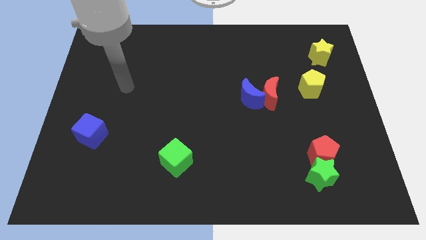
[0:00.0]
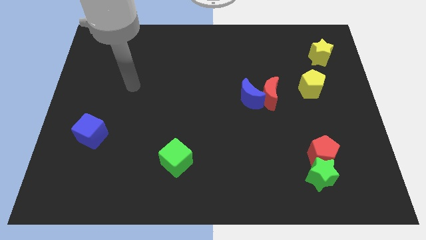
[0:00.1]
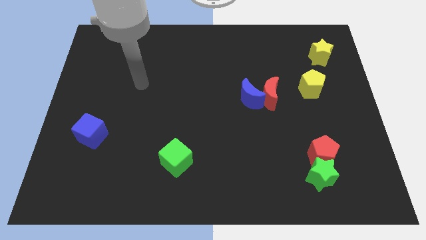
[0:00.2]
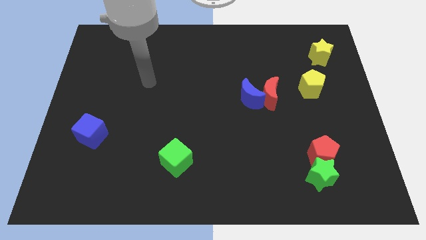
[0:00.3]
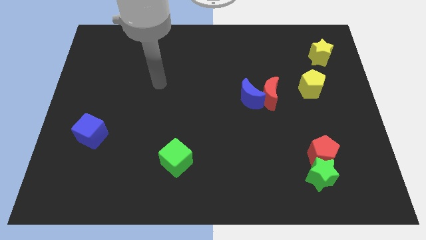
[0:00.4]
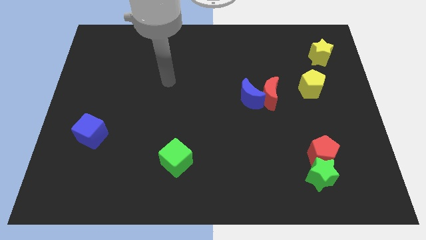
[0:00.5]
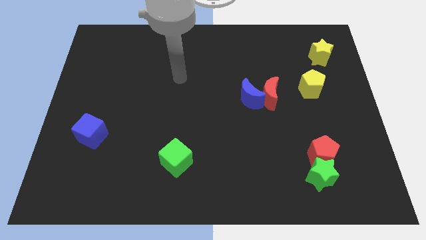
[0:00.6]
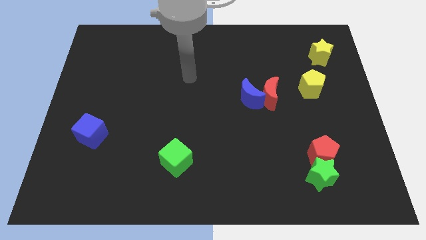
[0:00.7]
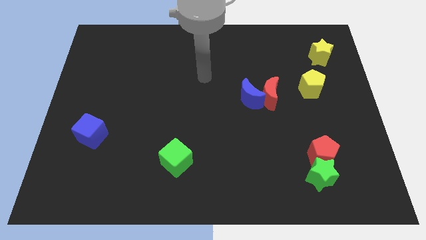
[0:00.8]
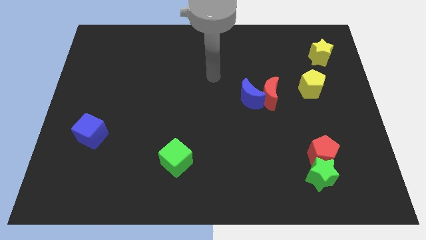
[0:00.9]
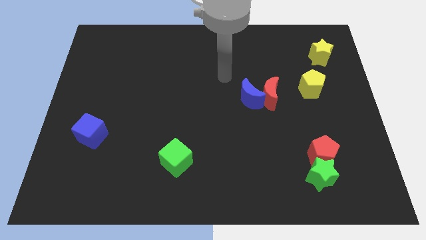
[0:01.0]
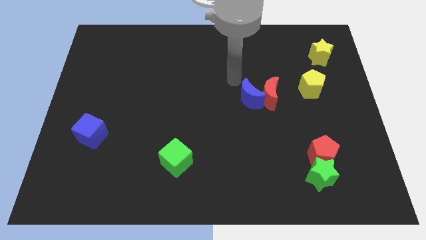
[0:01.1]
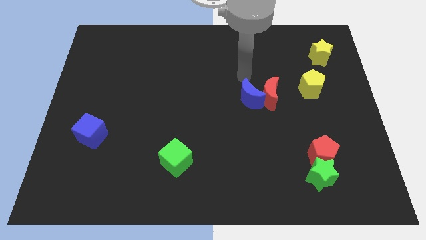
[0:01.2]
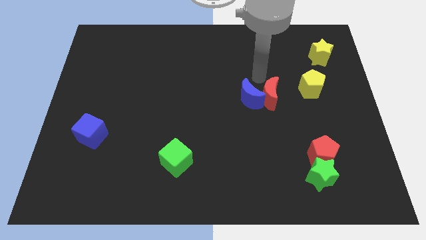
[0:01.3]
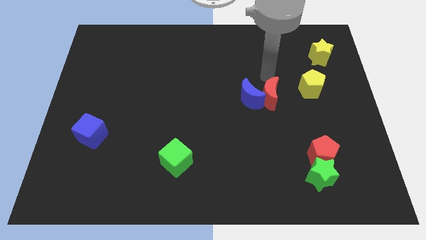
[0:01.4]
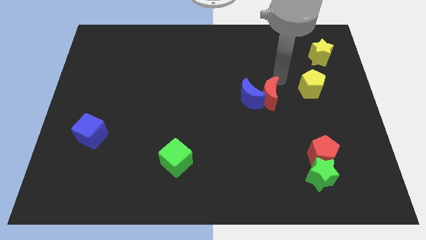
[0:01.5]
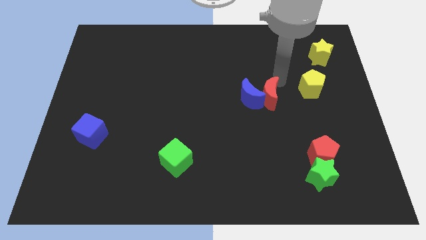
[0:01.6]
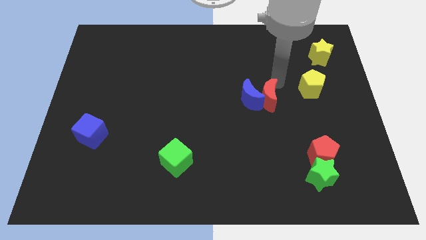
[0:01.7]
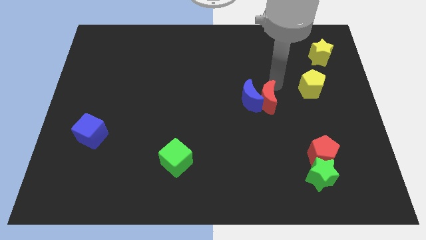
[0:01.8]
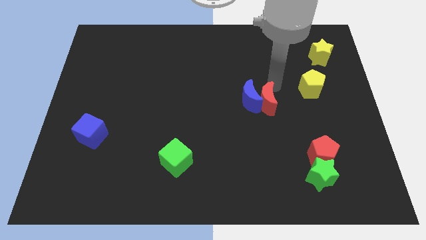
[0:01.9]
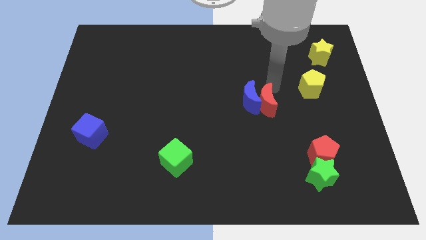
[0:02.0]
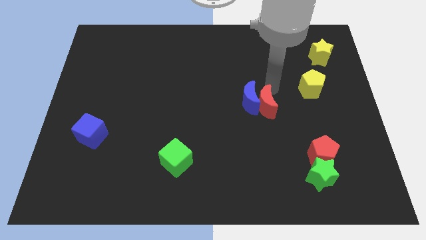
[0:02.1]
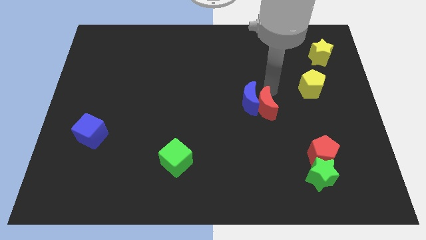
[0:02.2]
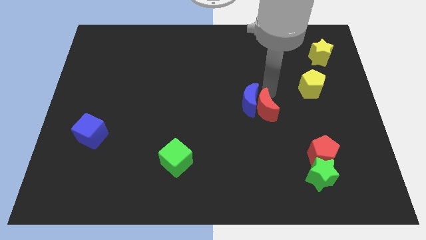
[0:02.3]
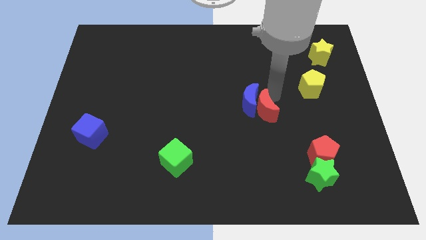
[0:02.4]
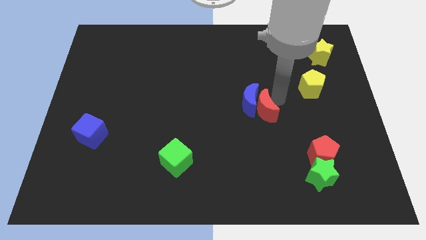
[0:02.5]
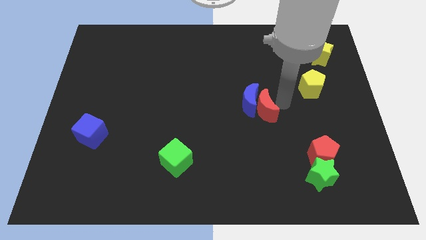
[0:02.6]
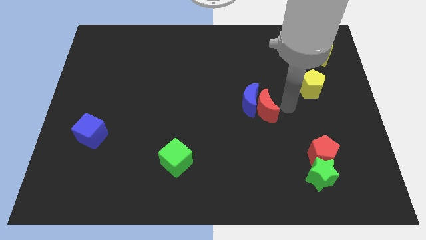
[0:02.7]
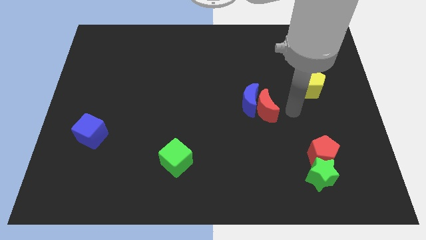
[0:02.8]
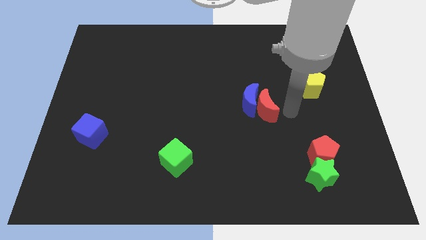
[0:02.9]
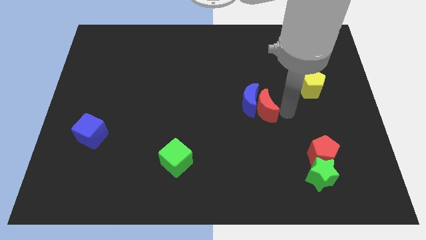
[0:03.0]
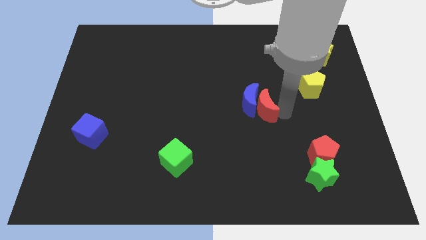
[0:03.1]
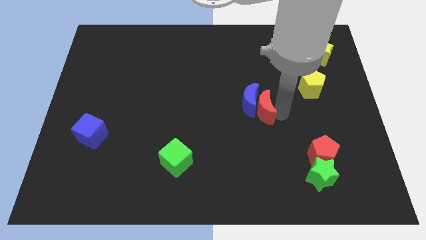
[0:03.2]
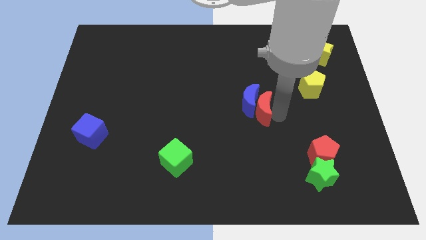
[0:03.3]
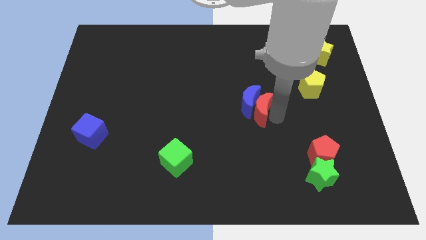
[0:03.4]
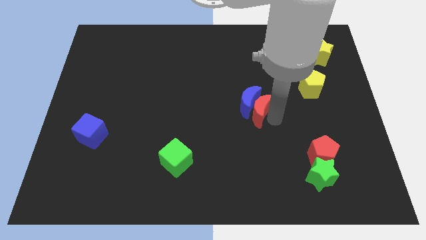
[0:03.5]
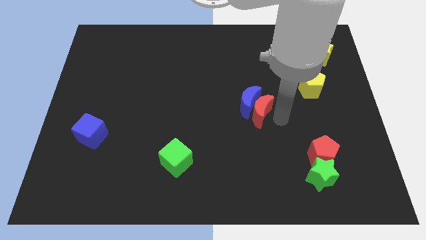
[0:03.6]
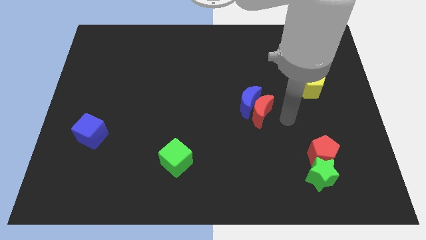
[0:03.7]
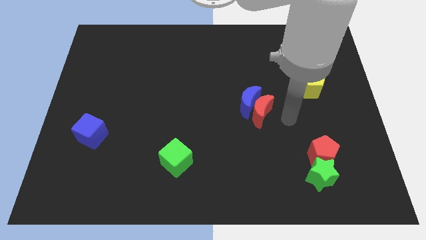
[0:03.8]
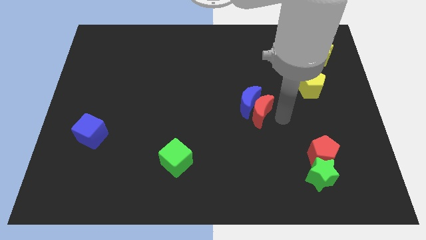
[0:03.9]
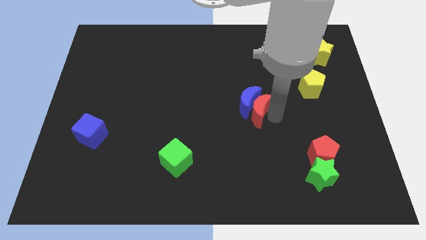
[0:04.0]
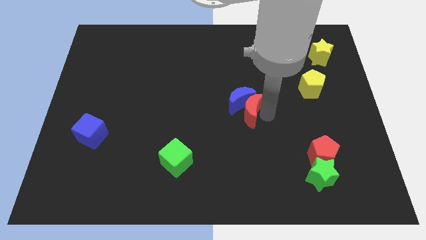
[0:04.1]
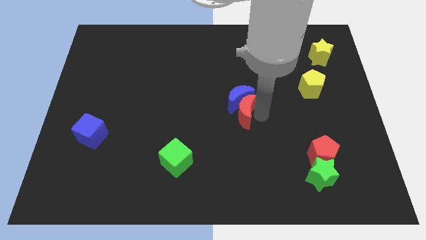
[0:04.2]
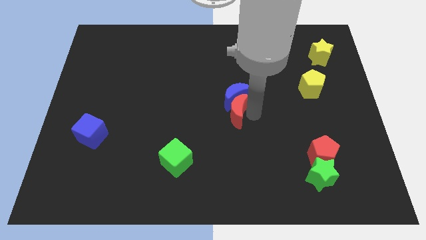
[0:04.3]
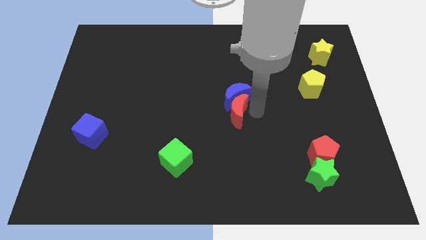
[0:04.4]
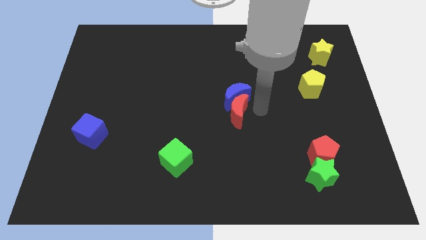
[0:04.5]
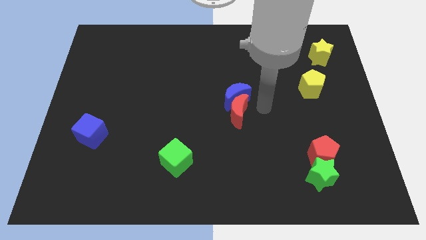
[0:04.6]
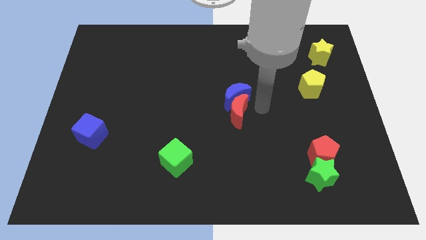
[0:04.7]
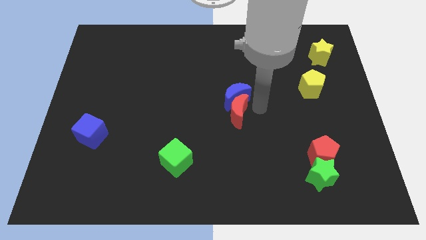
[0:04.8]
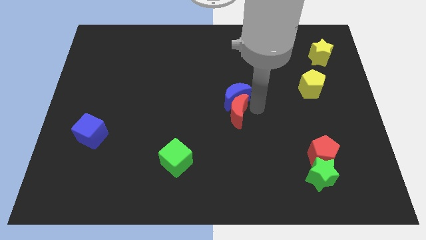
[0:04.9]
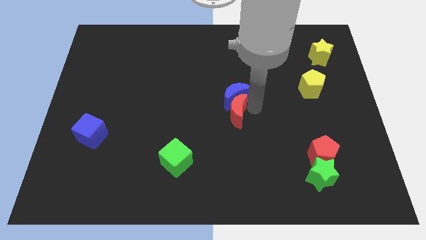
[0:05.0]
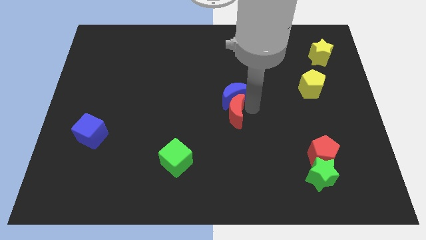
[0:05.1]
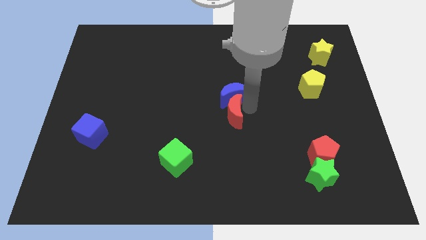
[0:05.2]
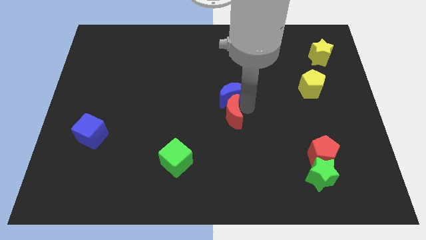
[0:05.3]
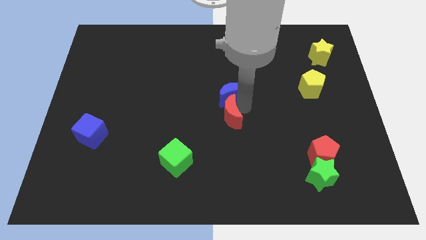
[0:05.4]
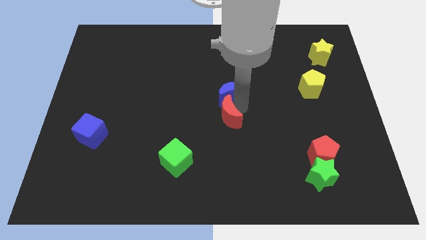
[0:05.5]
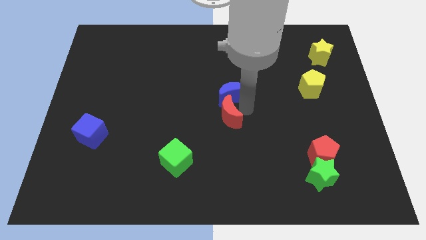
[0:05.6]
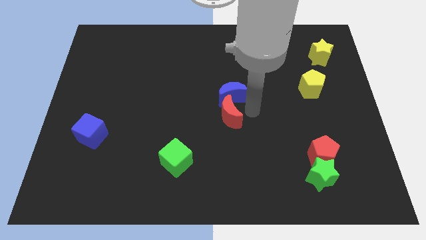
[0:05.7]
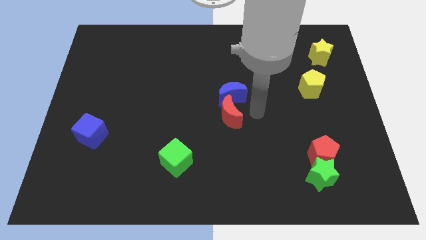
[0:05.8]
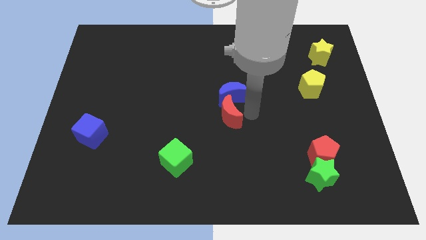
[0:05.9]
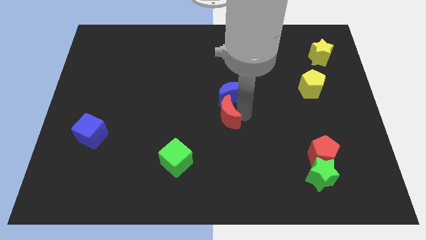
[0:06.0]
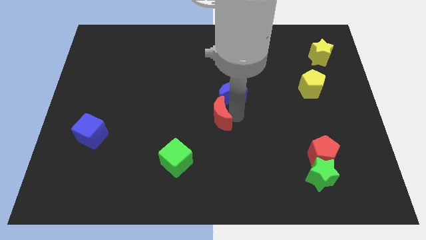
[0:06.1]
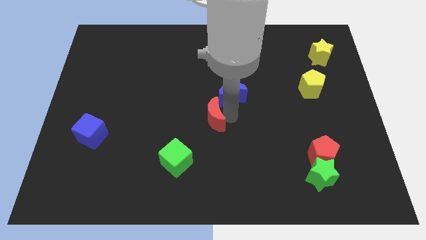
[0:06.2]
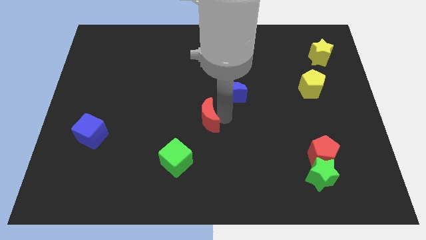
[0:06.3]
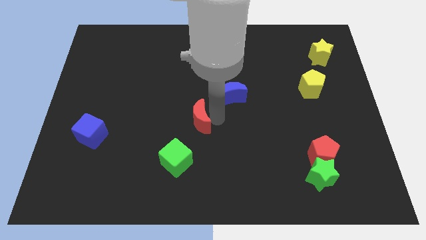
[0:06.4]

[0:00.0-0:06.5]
push the red moon to the top of the green cube

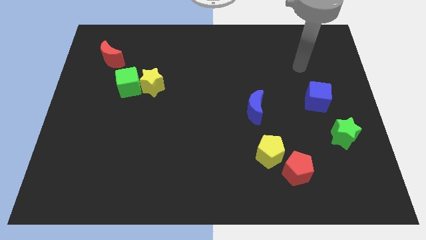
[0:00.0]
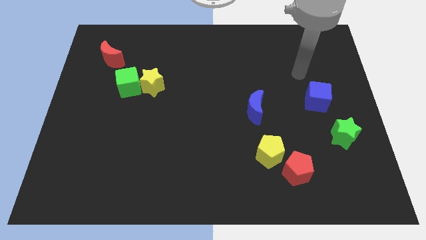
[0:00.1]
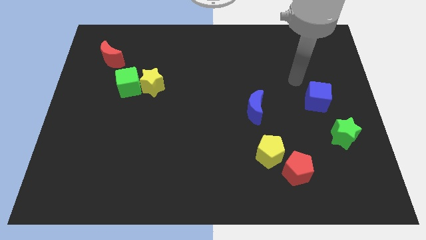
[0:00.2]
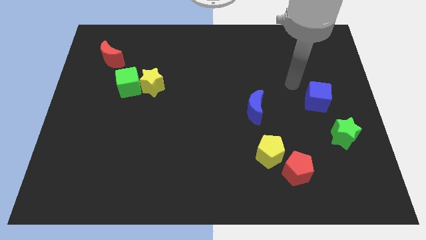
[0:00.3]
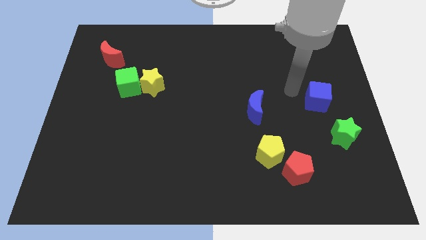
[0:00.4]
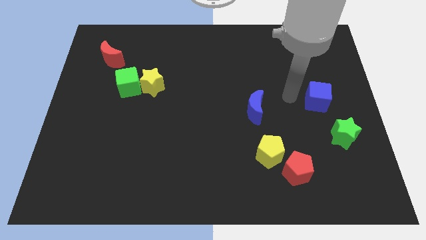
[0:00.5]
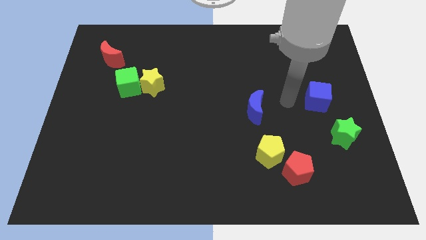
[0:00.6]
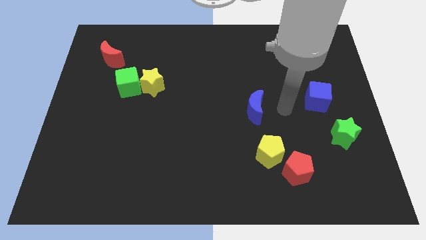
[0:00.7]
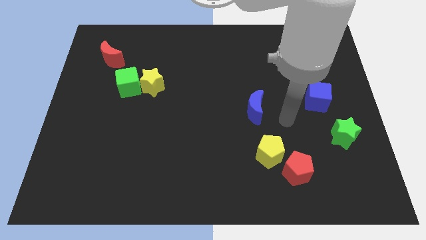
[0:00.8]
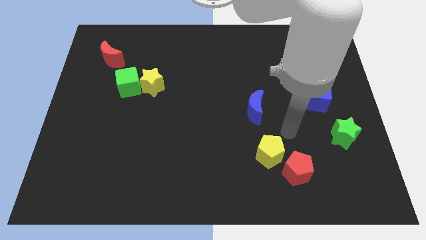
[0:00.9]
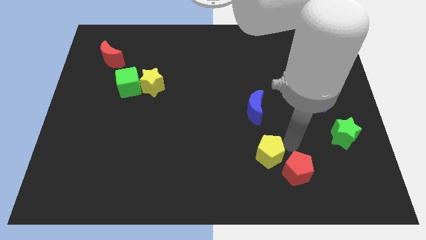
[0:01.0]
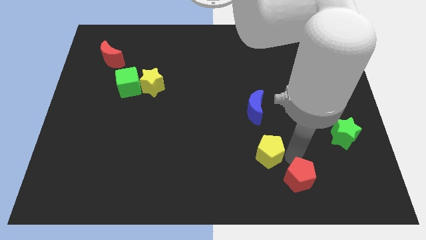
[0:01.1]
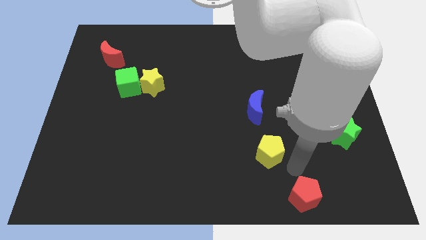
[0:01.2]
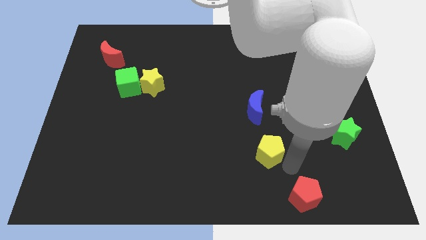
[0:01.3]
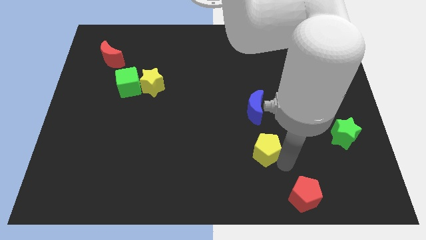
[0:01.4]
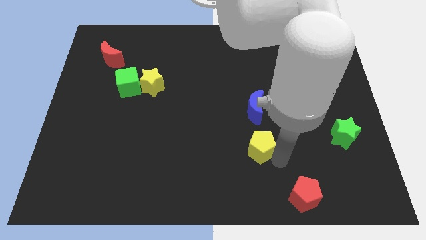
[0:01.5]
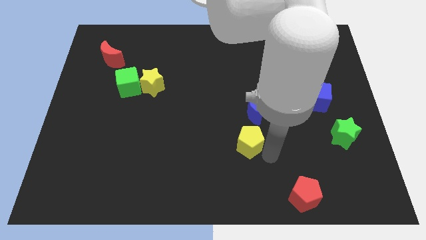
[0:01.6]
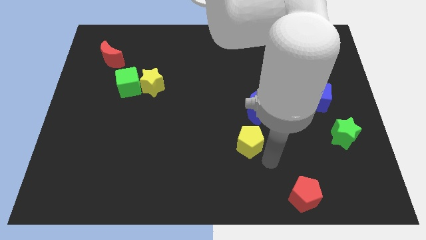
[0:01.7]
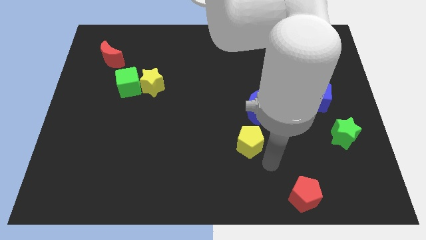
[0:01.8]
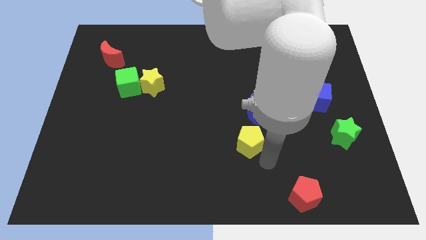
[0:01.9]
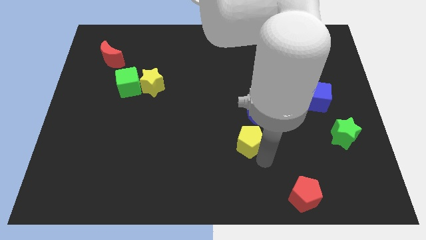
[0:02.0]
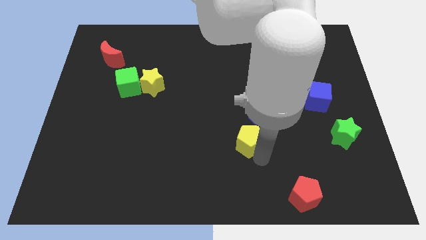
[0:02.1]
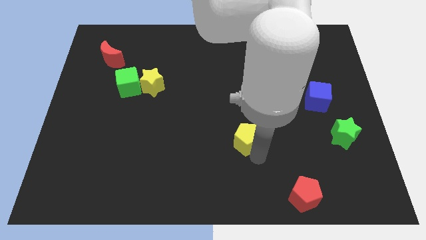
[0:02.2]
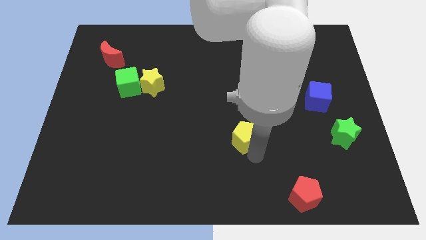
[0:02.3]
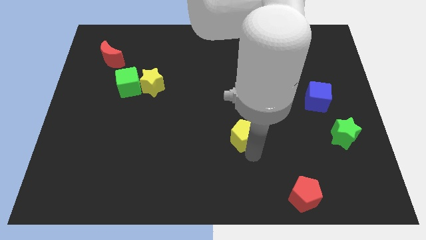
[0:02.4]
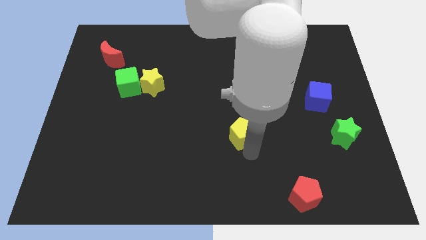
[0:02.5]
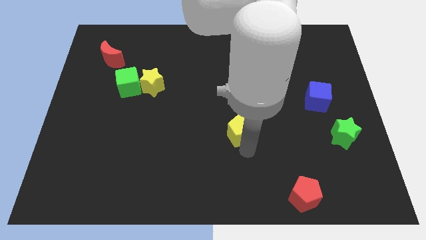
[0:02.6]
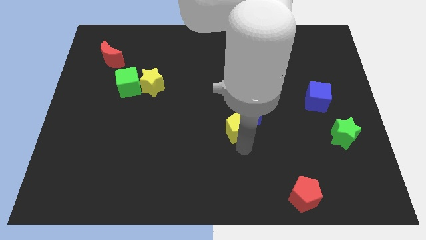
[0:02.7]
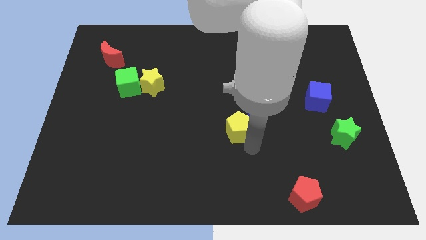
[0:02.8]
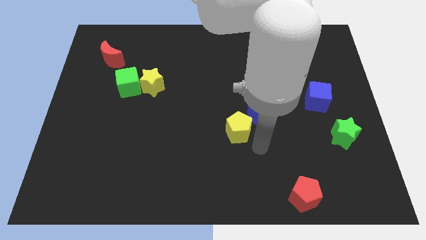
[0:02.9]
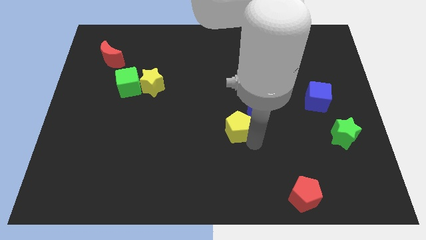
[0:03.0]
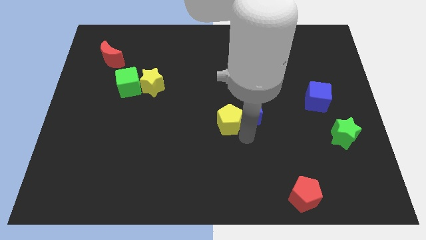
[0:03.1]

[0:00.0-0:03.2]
put the yellow pentagon left of the blue moon
